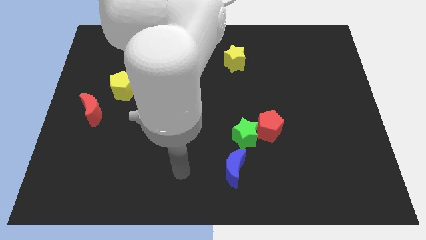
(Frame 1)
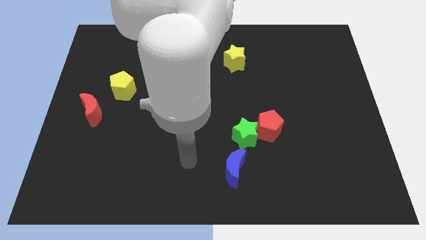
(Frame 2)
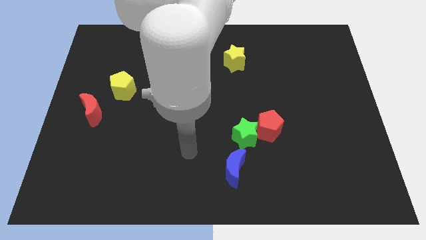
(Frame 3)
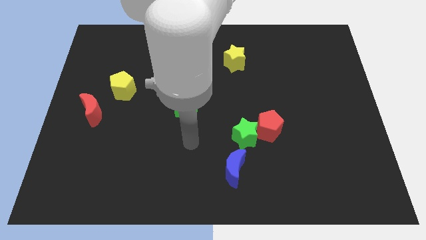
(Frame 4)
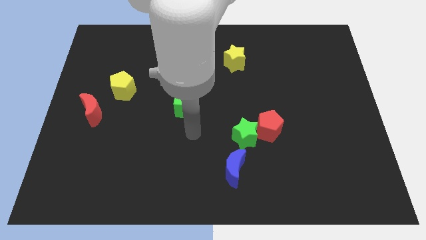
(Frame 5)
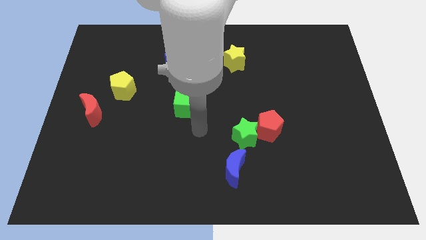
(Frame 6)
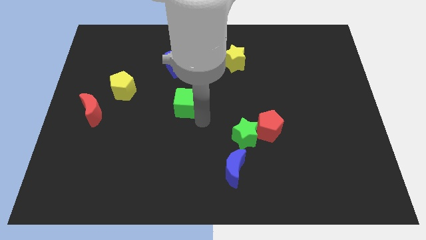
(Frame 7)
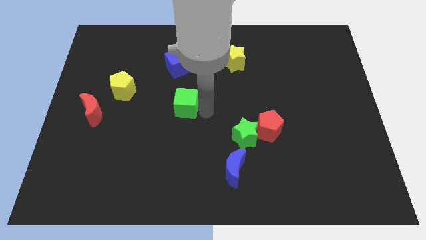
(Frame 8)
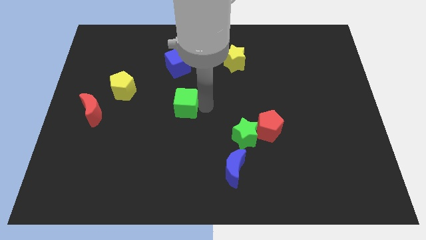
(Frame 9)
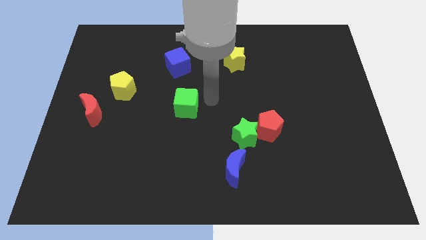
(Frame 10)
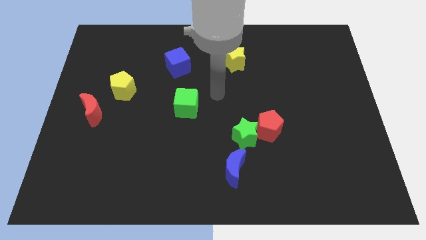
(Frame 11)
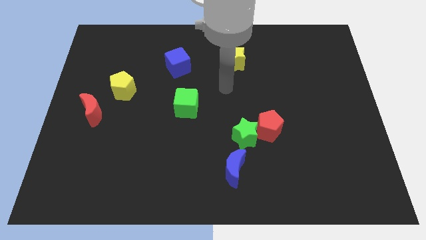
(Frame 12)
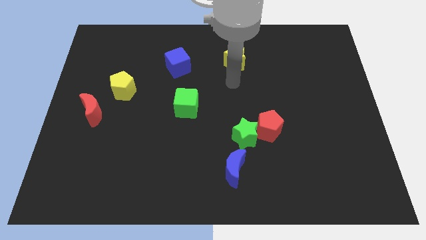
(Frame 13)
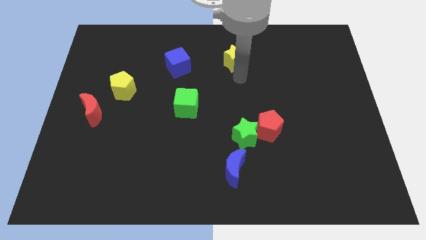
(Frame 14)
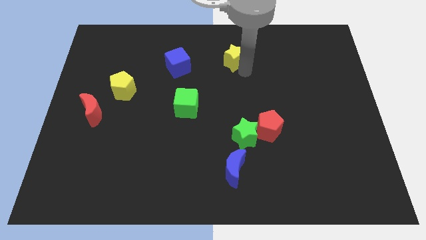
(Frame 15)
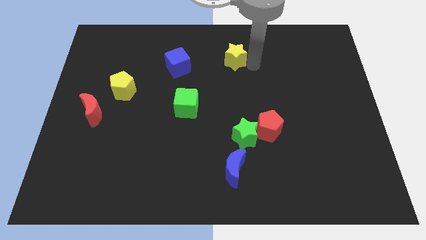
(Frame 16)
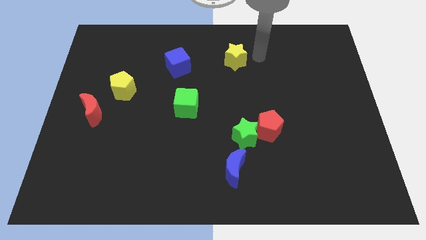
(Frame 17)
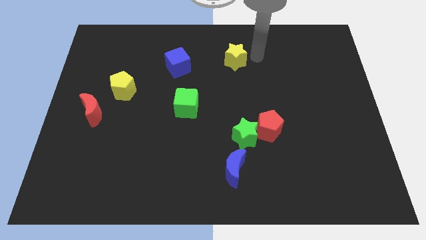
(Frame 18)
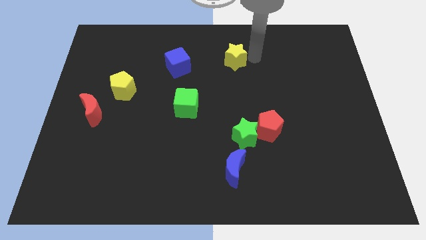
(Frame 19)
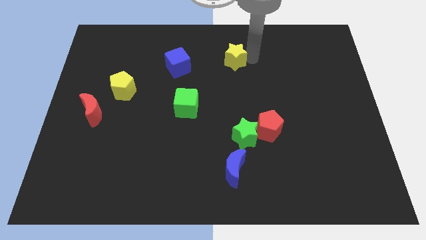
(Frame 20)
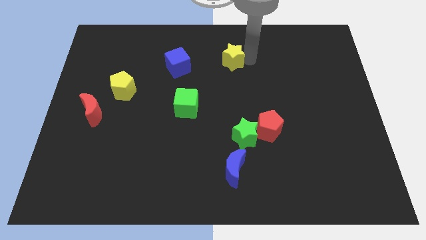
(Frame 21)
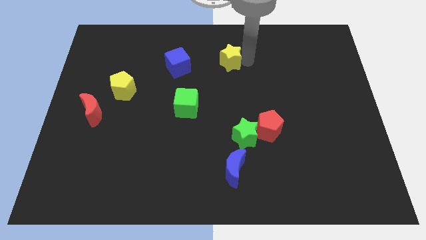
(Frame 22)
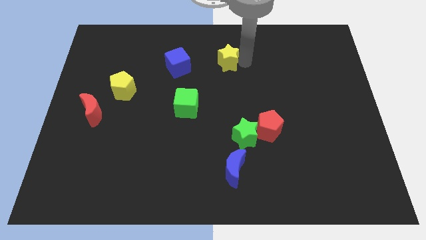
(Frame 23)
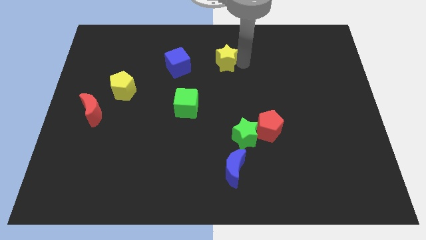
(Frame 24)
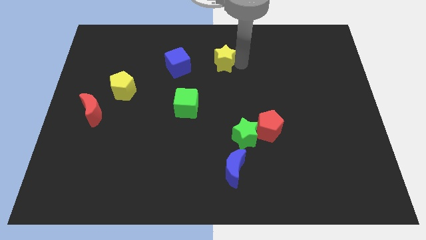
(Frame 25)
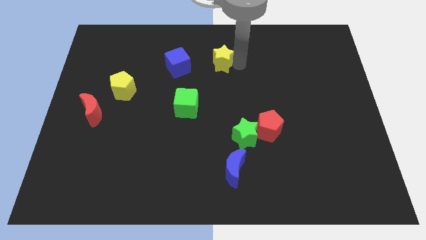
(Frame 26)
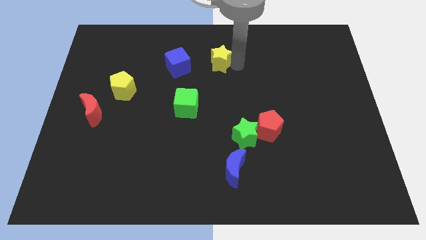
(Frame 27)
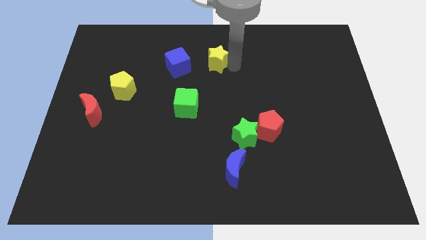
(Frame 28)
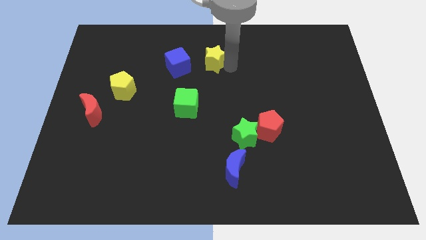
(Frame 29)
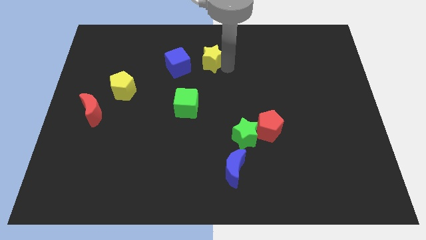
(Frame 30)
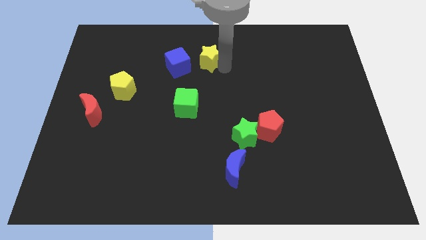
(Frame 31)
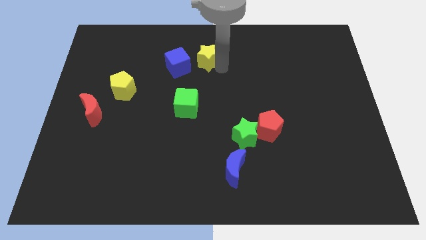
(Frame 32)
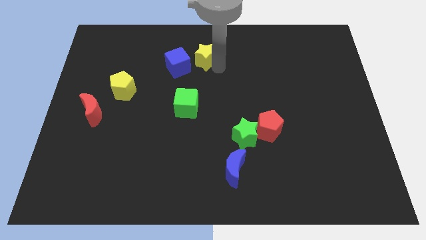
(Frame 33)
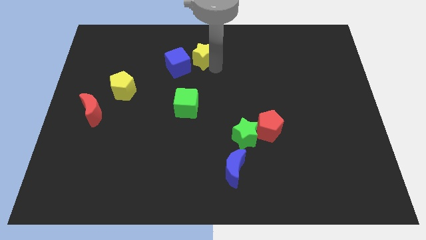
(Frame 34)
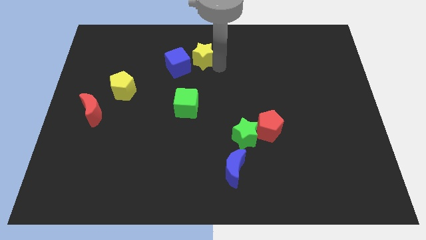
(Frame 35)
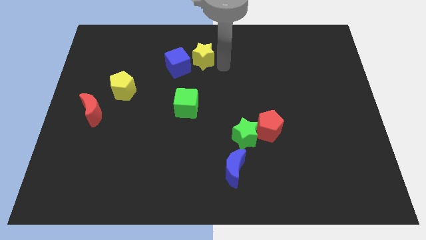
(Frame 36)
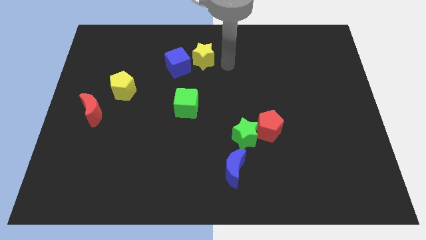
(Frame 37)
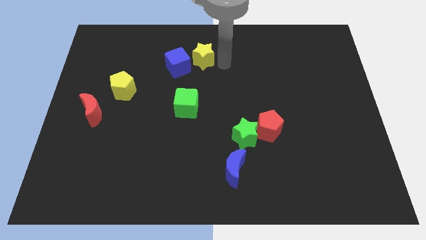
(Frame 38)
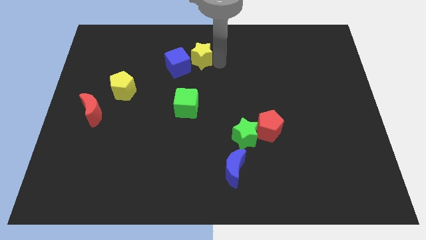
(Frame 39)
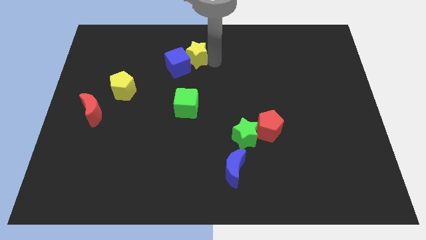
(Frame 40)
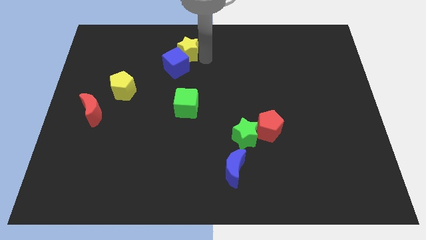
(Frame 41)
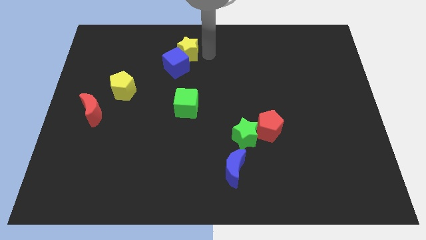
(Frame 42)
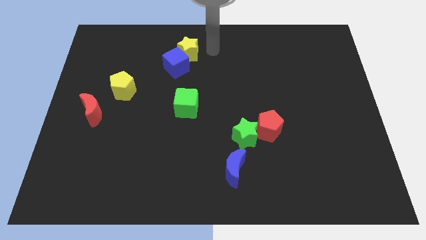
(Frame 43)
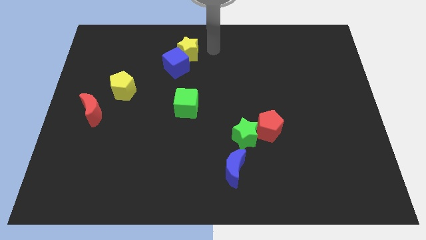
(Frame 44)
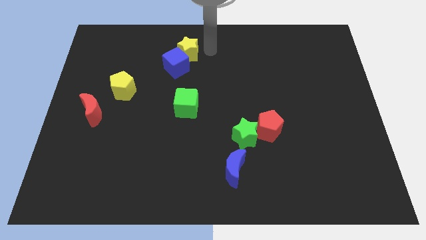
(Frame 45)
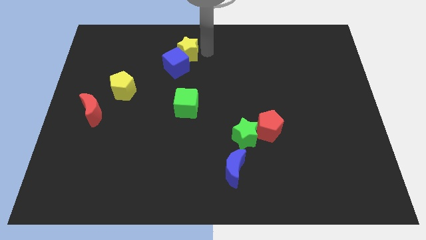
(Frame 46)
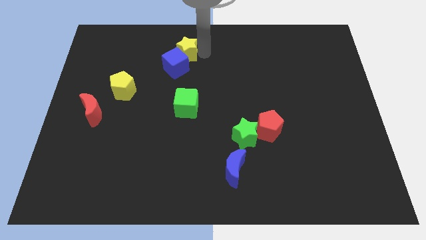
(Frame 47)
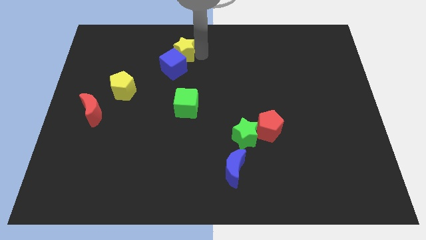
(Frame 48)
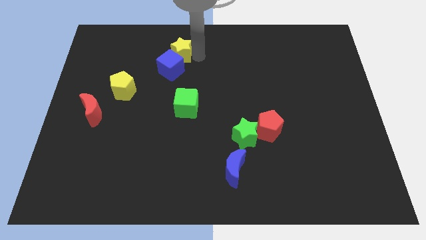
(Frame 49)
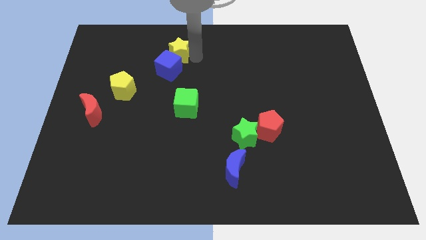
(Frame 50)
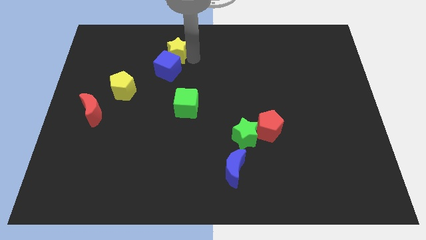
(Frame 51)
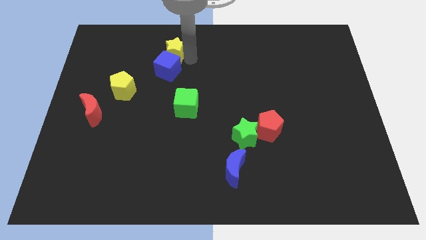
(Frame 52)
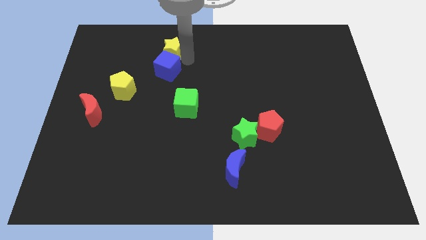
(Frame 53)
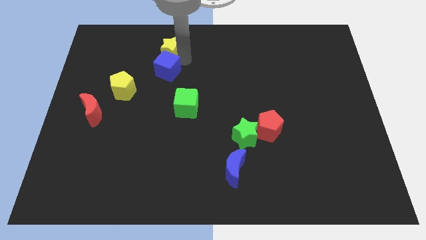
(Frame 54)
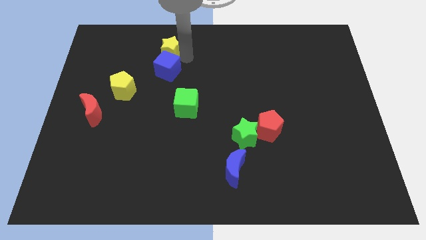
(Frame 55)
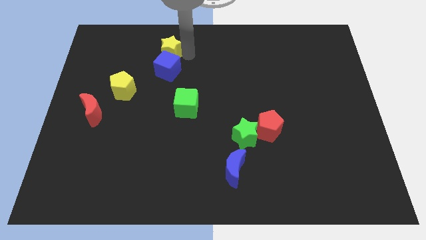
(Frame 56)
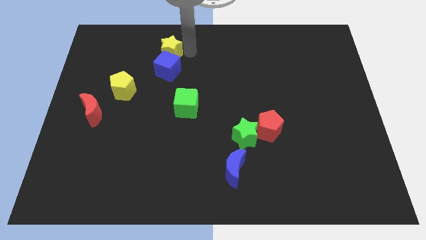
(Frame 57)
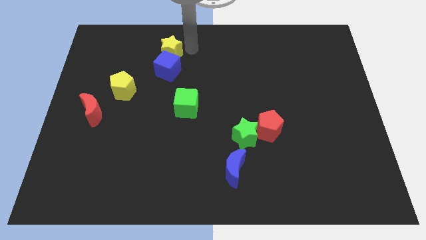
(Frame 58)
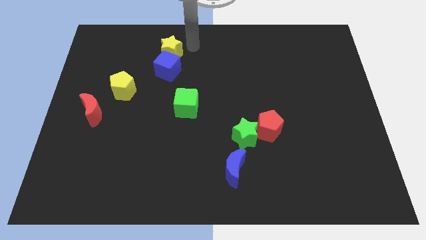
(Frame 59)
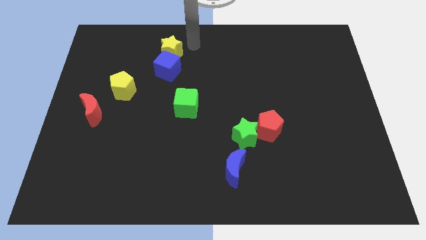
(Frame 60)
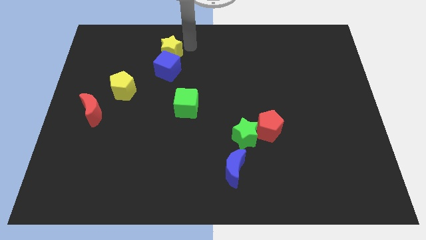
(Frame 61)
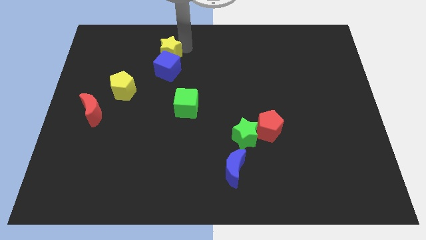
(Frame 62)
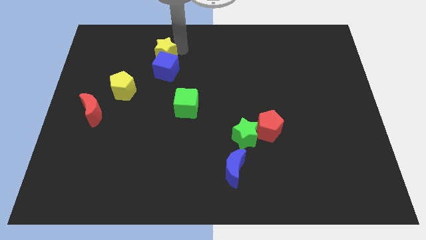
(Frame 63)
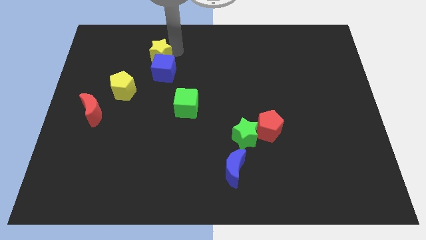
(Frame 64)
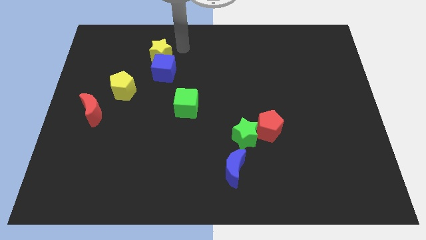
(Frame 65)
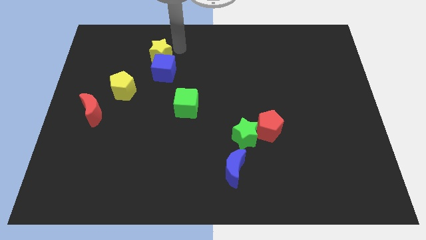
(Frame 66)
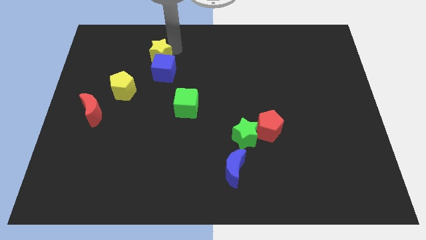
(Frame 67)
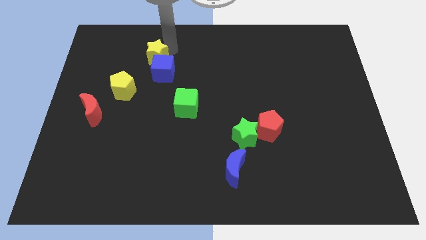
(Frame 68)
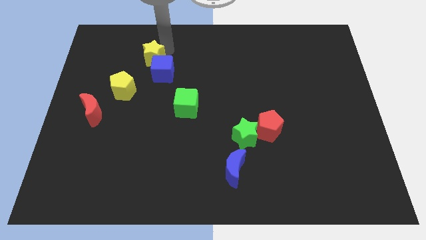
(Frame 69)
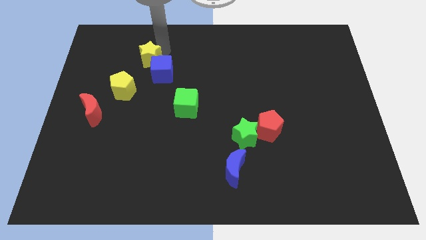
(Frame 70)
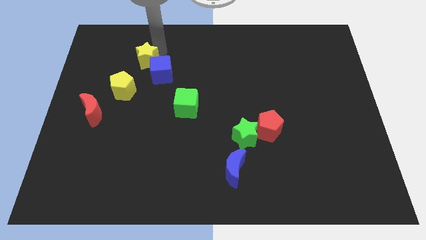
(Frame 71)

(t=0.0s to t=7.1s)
push the yellow star to the left side of the blue cube
